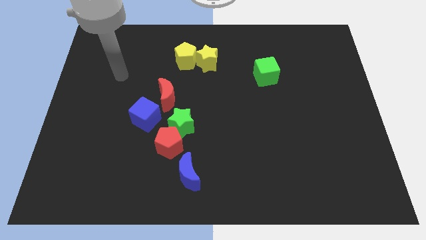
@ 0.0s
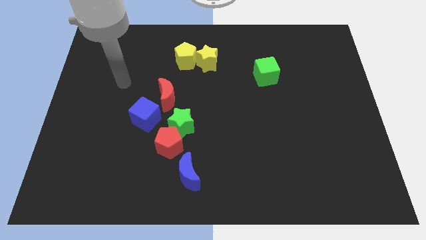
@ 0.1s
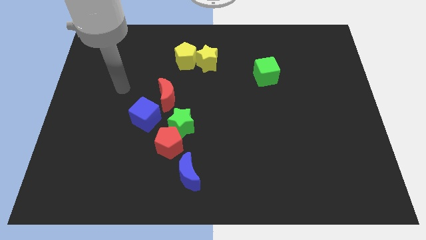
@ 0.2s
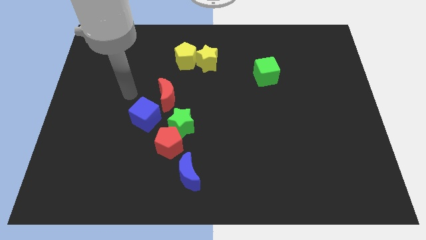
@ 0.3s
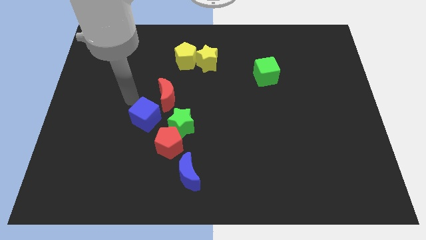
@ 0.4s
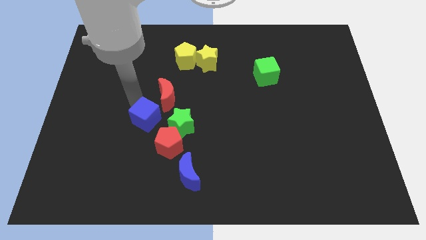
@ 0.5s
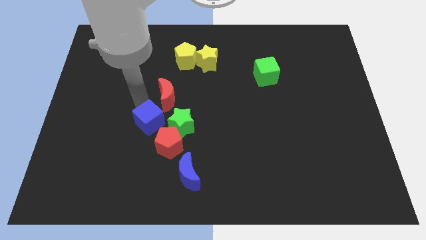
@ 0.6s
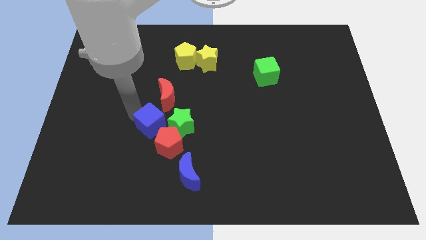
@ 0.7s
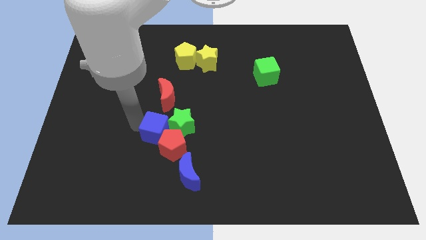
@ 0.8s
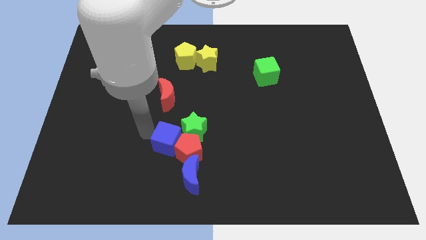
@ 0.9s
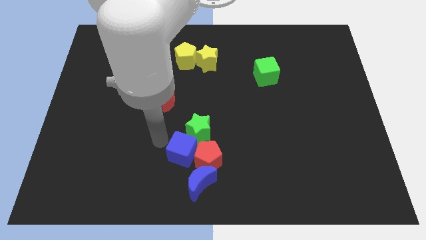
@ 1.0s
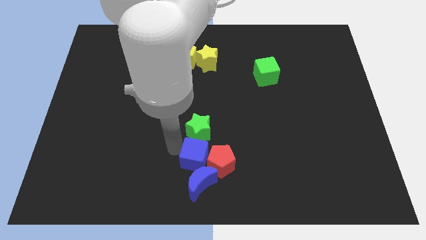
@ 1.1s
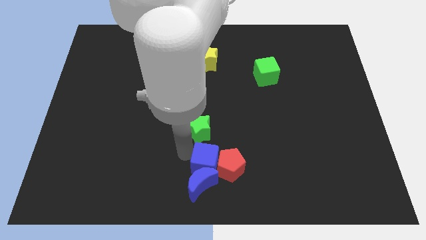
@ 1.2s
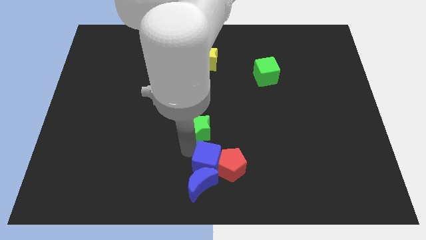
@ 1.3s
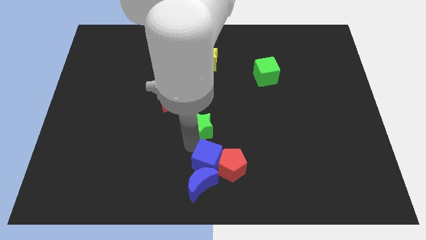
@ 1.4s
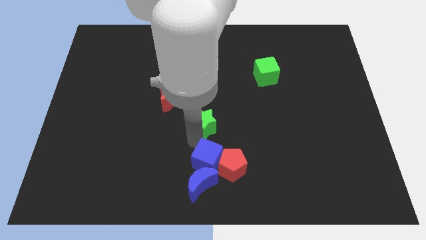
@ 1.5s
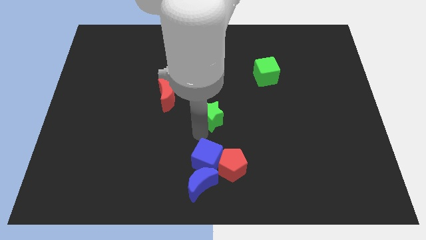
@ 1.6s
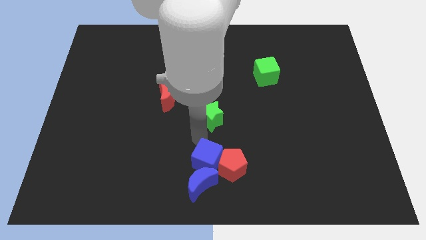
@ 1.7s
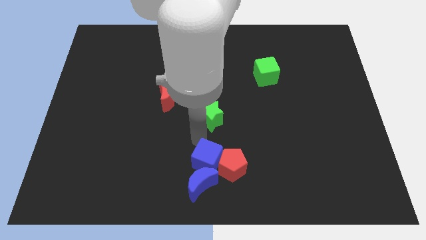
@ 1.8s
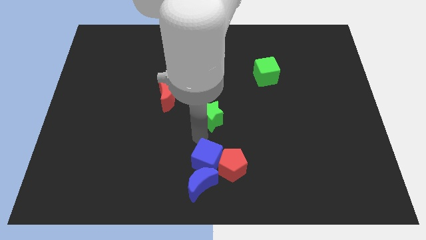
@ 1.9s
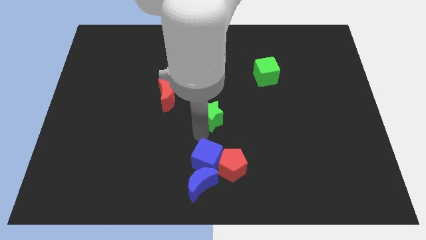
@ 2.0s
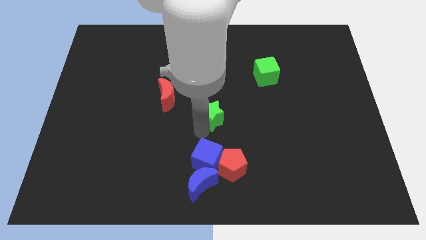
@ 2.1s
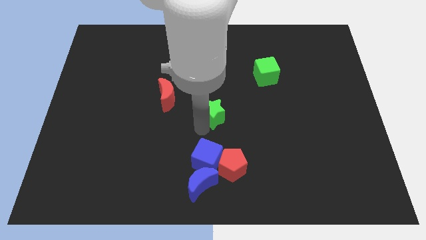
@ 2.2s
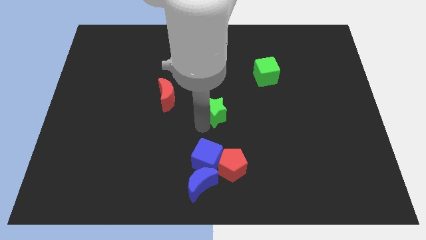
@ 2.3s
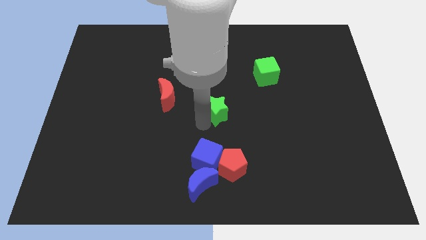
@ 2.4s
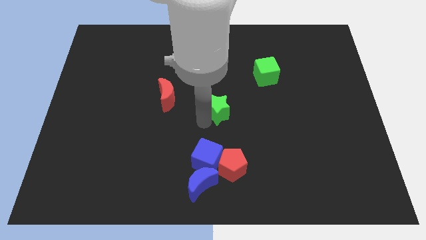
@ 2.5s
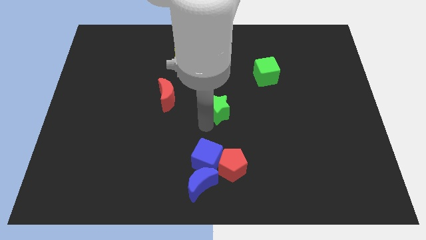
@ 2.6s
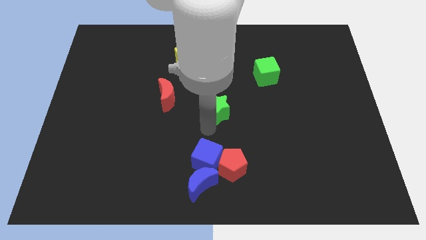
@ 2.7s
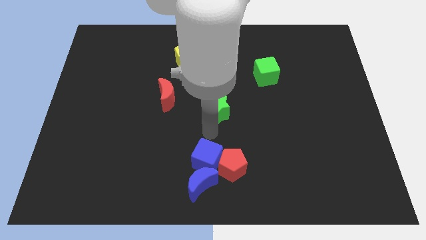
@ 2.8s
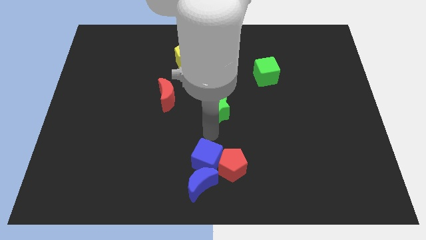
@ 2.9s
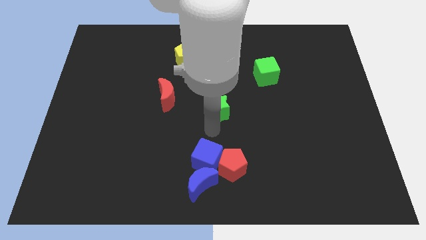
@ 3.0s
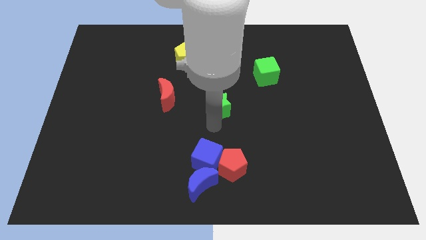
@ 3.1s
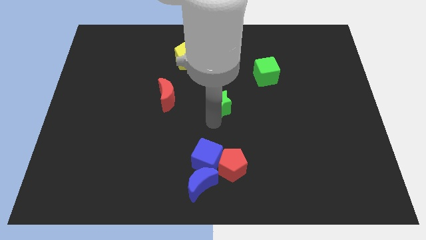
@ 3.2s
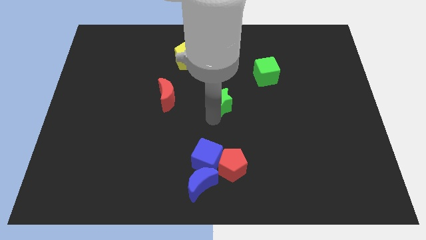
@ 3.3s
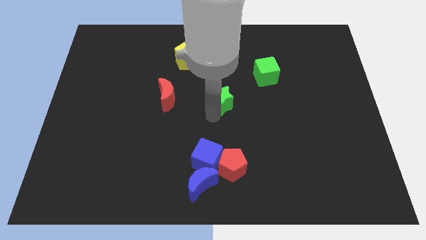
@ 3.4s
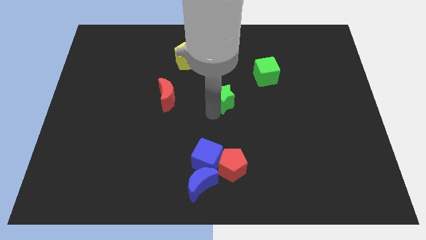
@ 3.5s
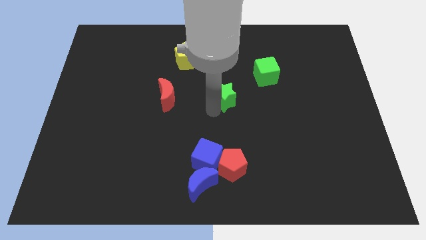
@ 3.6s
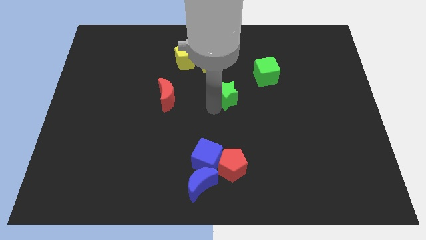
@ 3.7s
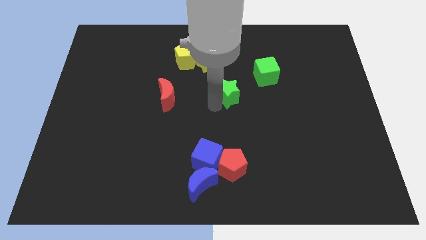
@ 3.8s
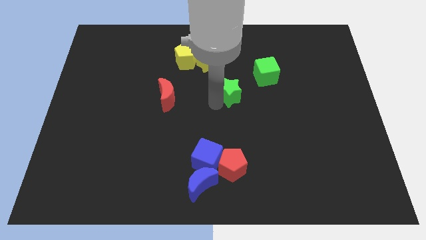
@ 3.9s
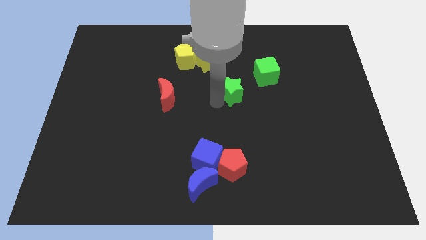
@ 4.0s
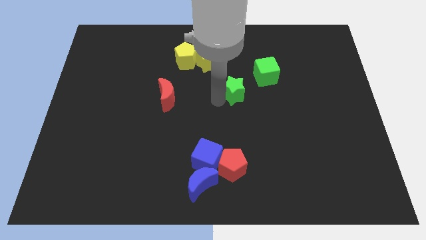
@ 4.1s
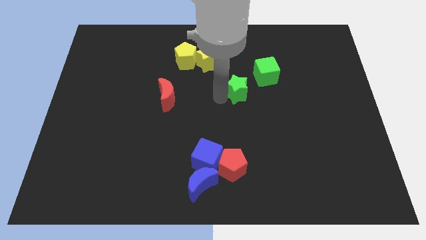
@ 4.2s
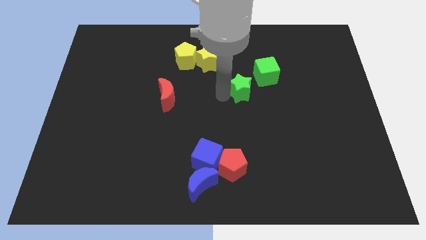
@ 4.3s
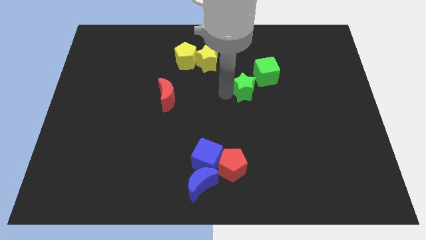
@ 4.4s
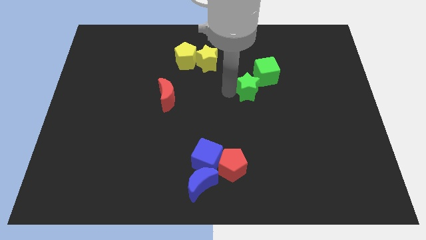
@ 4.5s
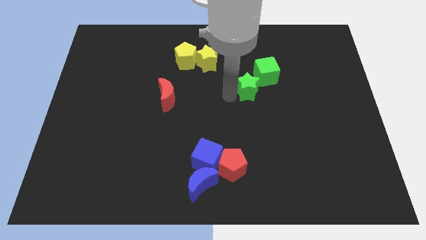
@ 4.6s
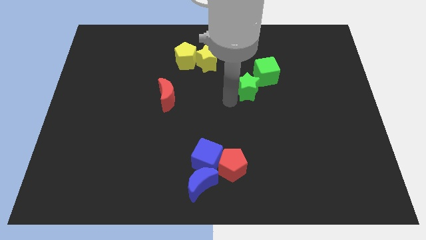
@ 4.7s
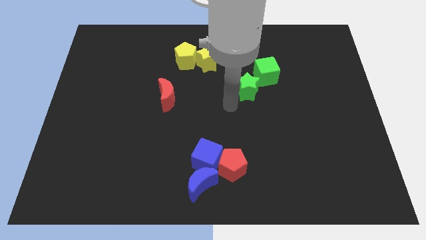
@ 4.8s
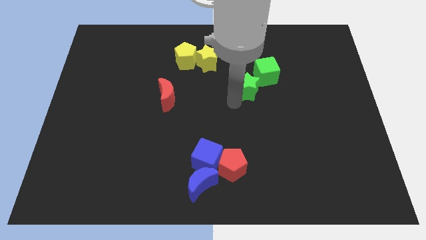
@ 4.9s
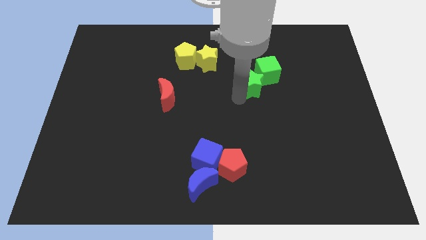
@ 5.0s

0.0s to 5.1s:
slide the green star to the green cube

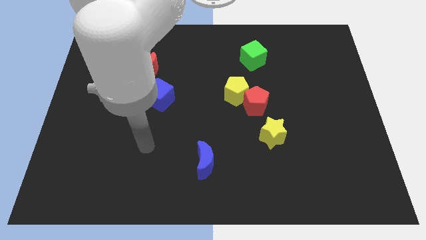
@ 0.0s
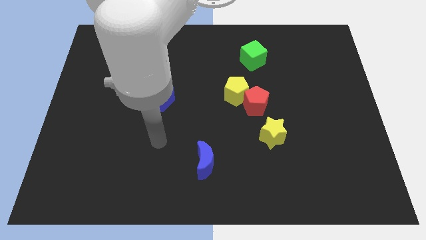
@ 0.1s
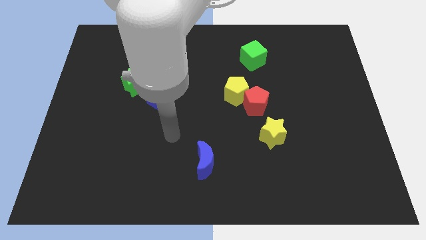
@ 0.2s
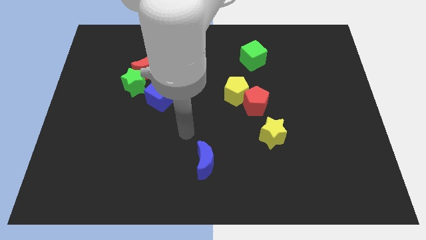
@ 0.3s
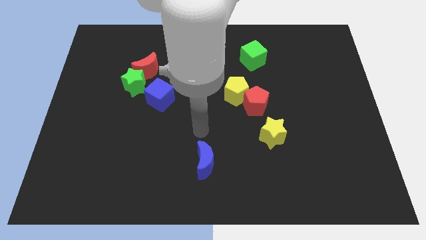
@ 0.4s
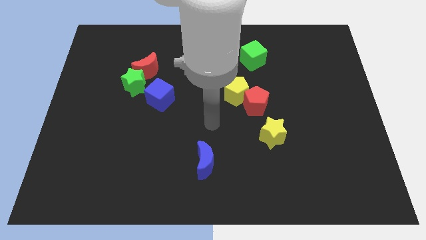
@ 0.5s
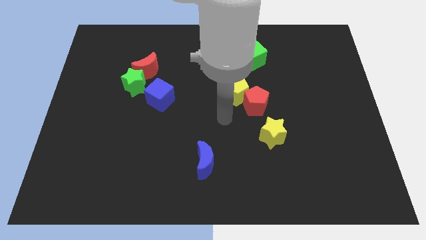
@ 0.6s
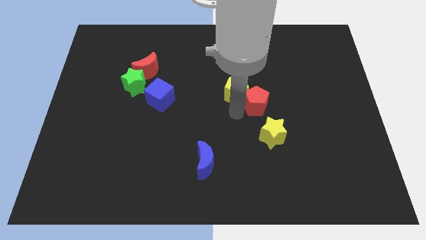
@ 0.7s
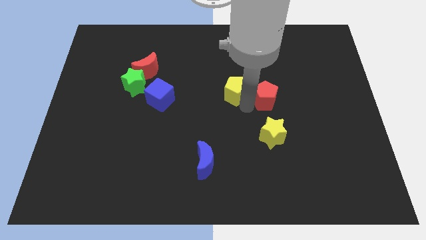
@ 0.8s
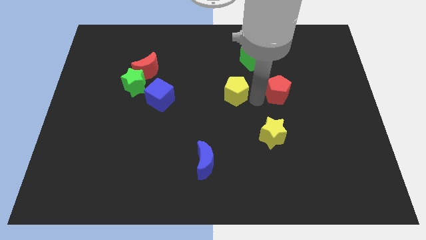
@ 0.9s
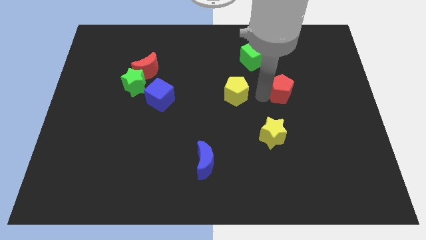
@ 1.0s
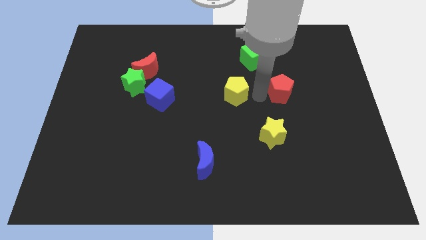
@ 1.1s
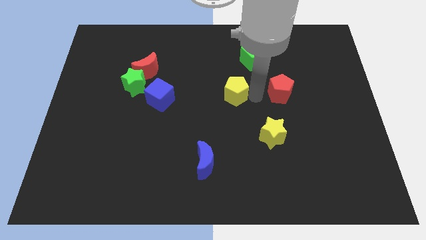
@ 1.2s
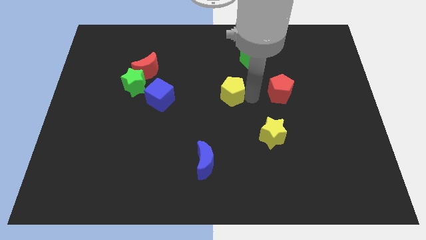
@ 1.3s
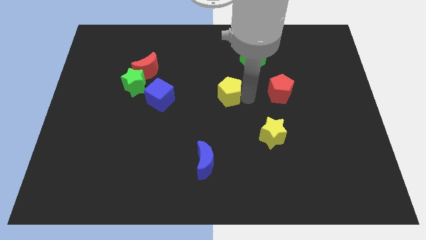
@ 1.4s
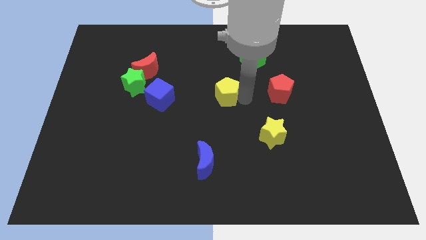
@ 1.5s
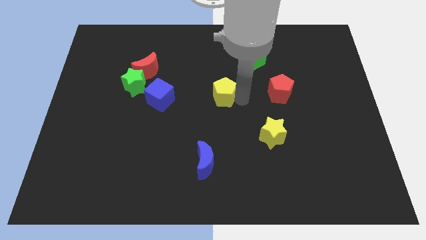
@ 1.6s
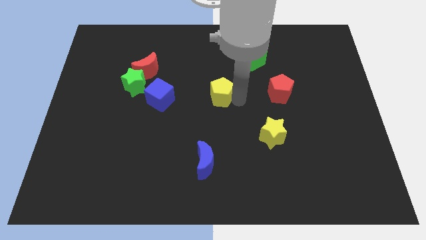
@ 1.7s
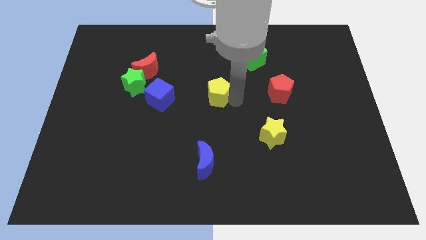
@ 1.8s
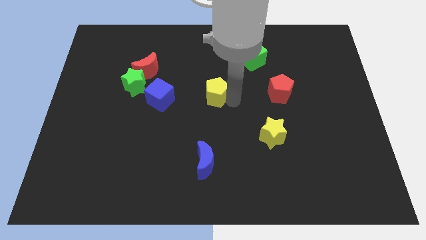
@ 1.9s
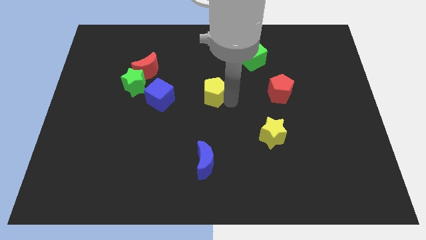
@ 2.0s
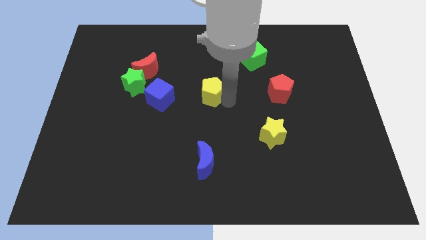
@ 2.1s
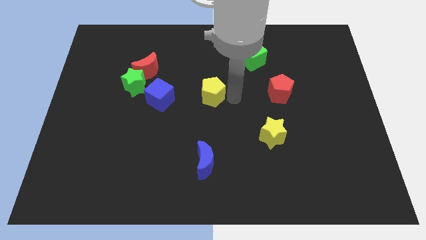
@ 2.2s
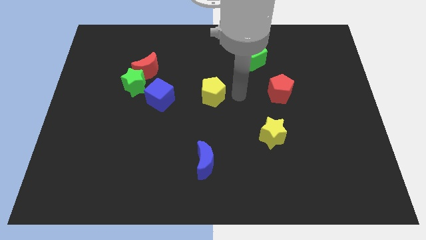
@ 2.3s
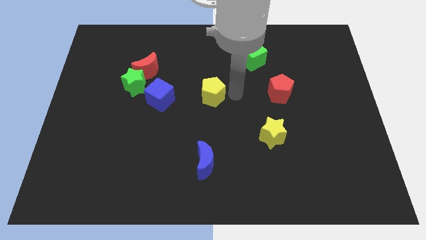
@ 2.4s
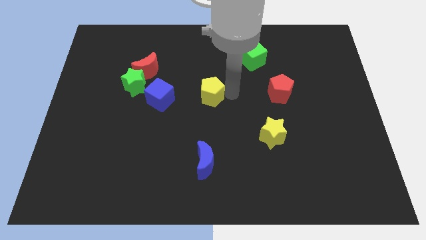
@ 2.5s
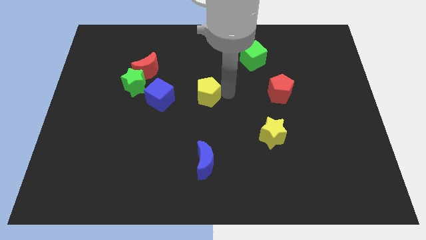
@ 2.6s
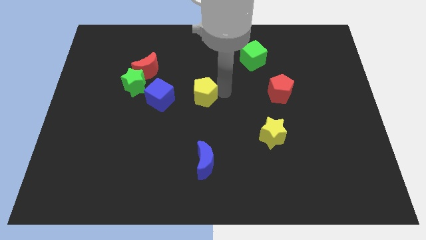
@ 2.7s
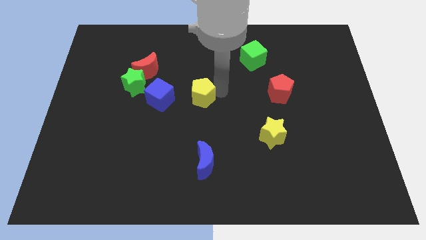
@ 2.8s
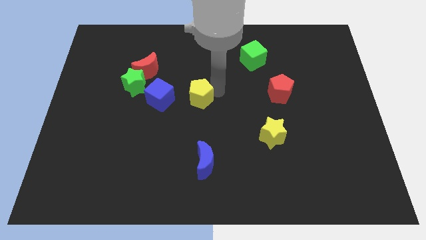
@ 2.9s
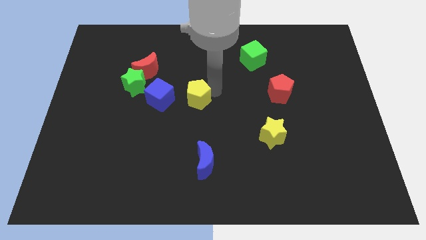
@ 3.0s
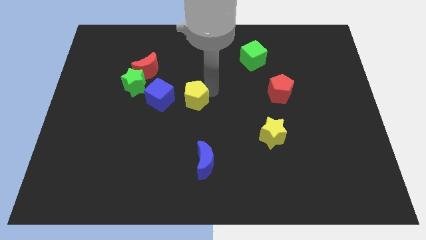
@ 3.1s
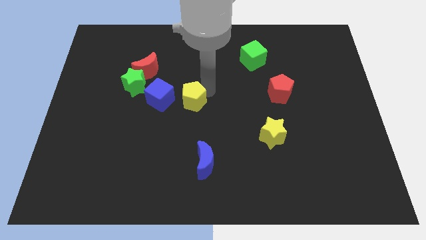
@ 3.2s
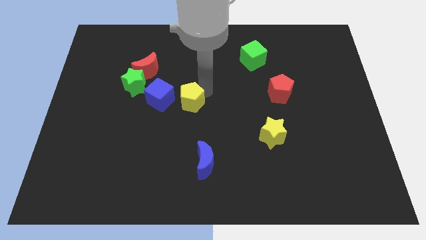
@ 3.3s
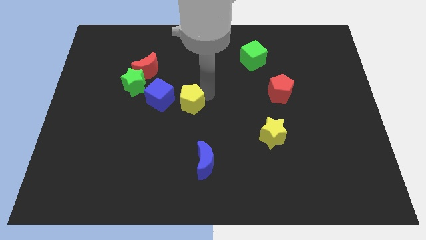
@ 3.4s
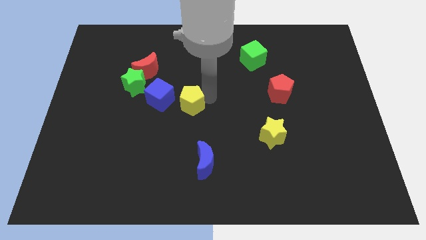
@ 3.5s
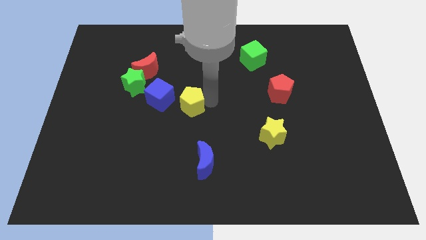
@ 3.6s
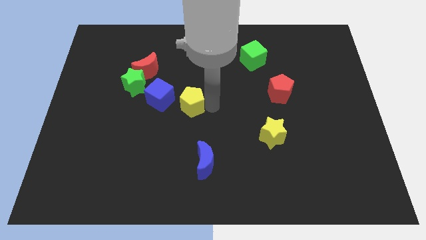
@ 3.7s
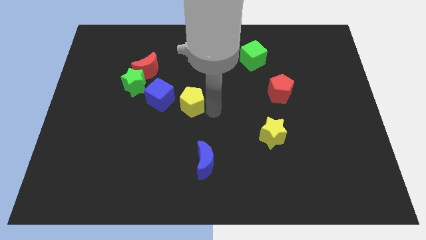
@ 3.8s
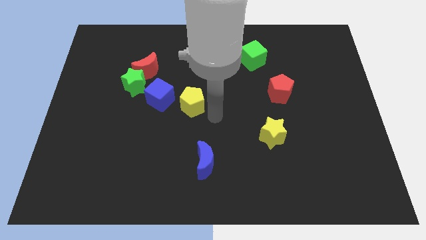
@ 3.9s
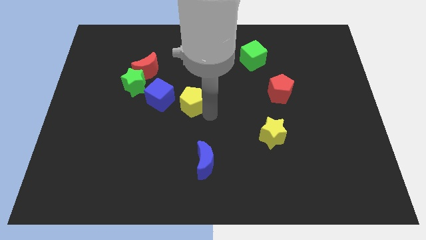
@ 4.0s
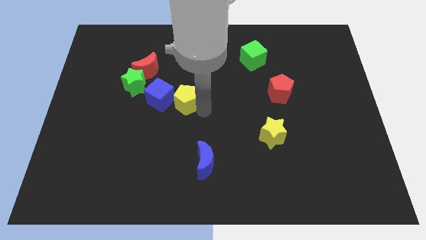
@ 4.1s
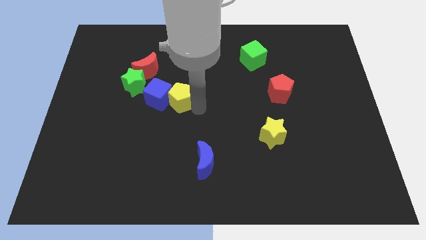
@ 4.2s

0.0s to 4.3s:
put the yellow pentagon towards the blue cube
